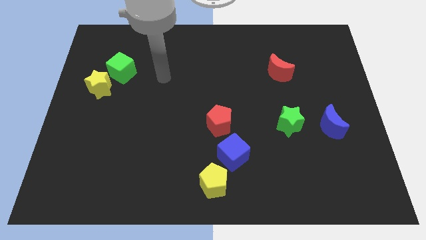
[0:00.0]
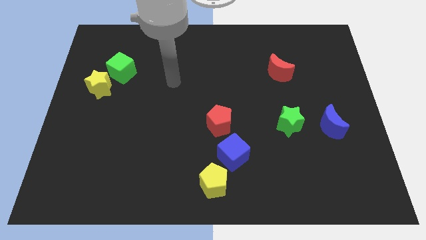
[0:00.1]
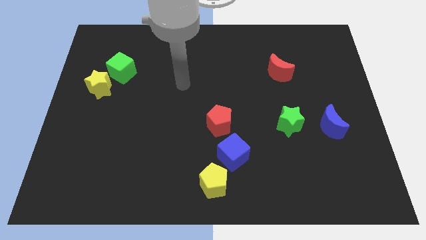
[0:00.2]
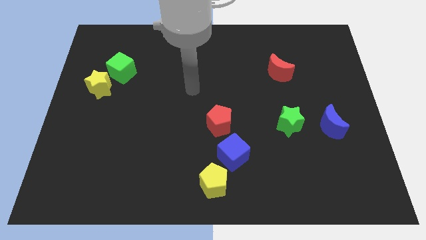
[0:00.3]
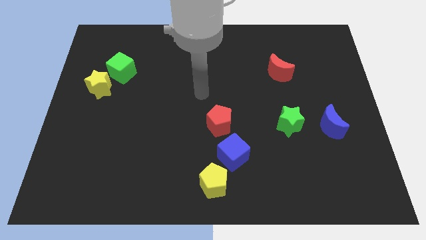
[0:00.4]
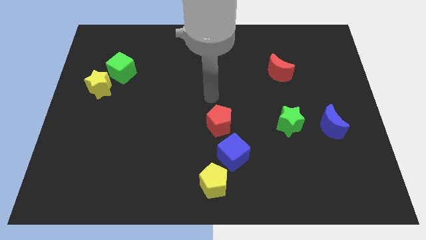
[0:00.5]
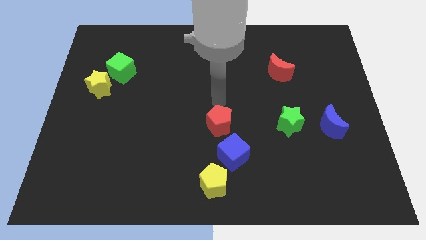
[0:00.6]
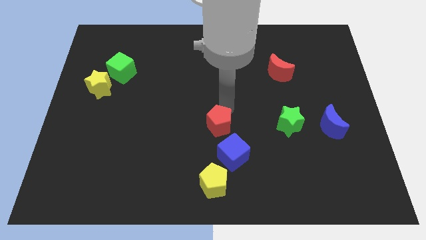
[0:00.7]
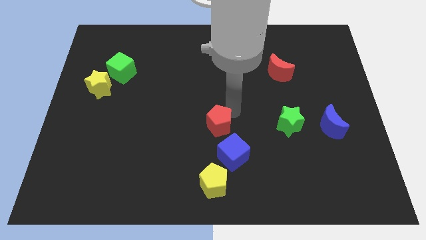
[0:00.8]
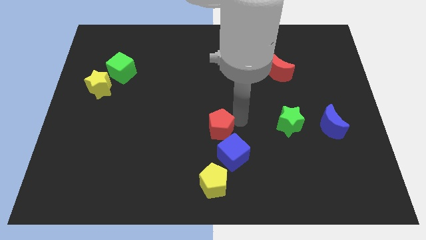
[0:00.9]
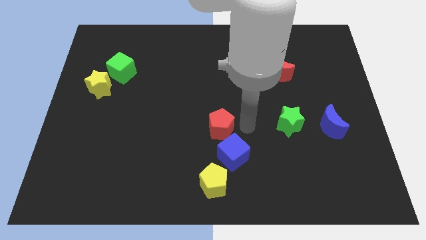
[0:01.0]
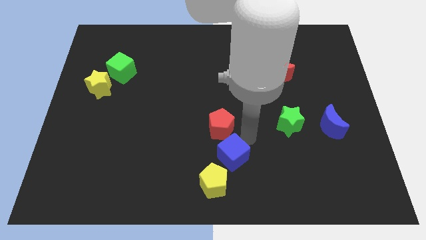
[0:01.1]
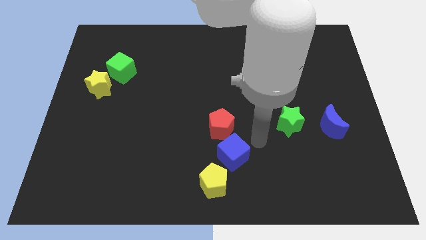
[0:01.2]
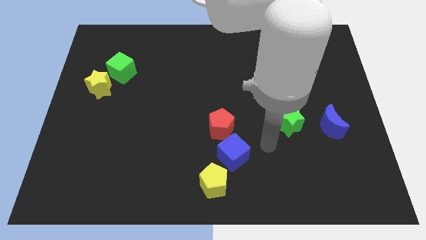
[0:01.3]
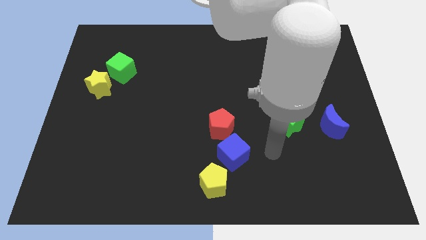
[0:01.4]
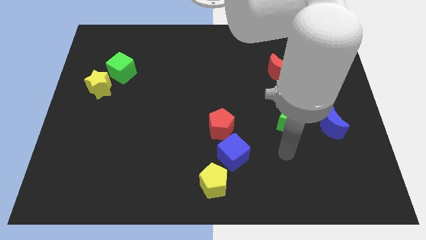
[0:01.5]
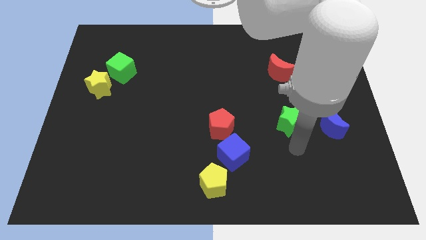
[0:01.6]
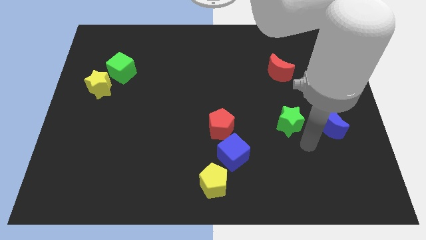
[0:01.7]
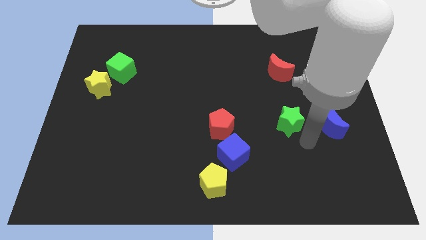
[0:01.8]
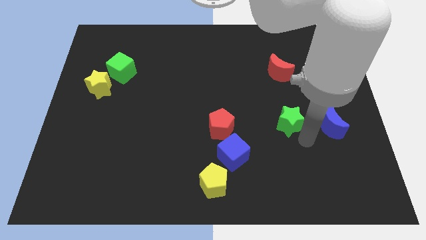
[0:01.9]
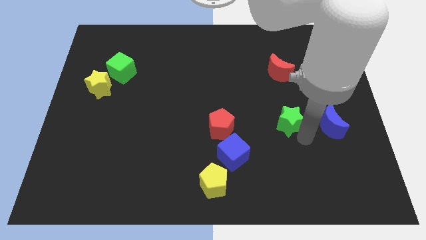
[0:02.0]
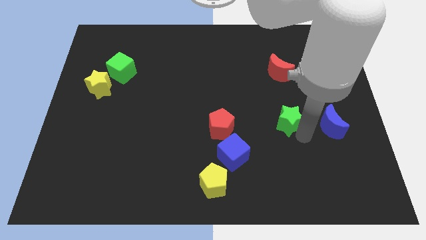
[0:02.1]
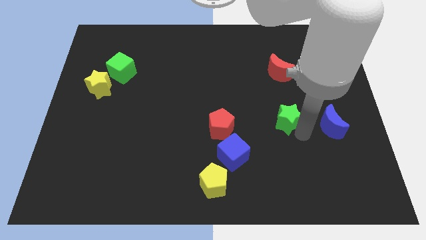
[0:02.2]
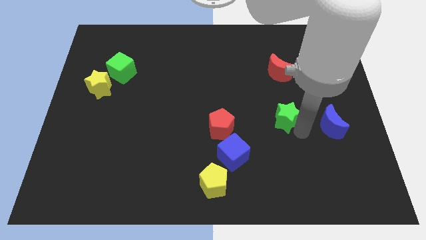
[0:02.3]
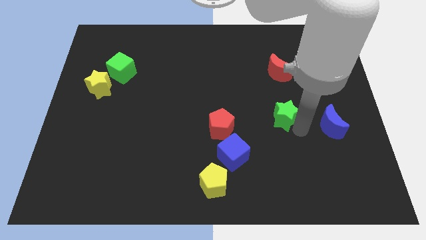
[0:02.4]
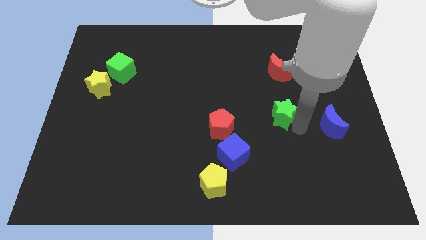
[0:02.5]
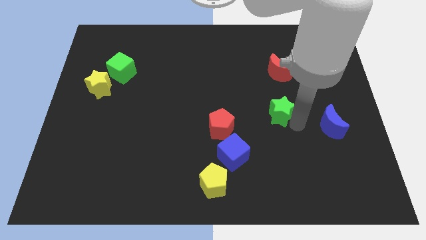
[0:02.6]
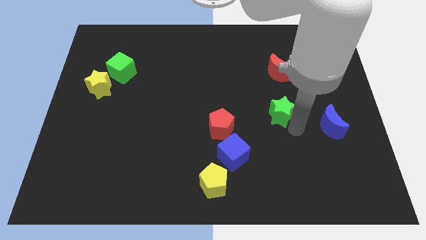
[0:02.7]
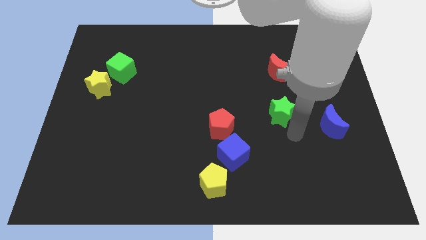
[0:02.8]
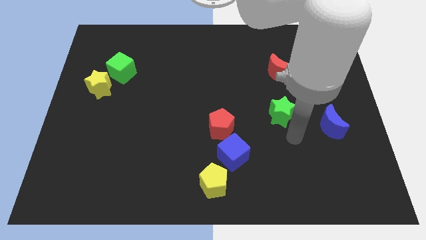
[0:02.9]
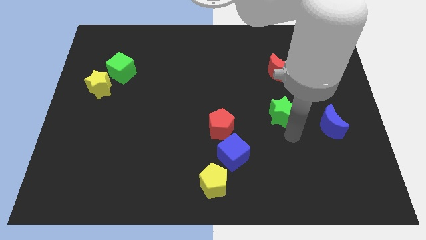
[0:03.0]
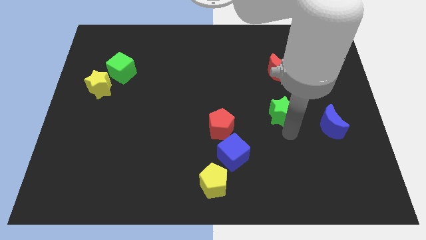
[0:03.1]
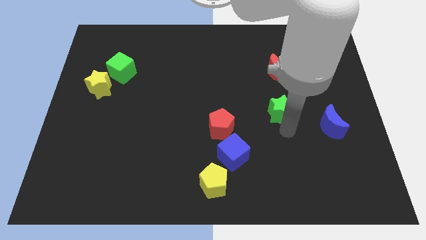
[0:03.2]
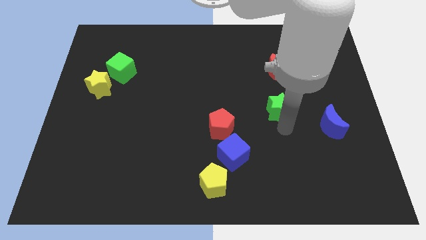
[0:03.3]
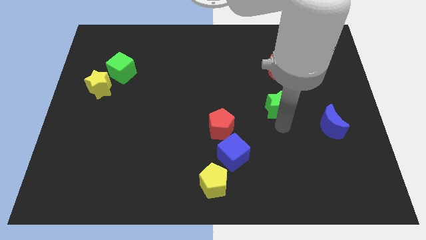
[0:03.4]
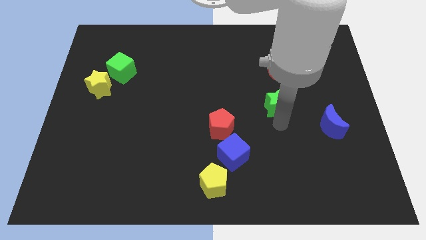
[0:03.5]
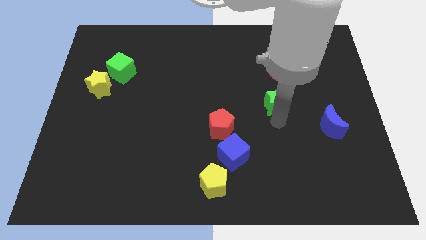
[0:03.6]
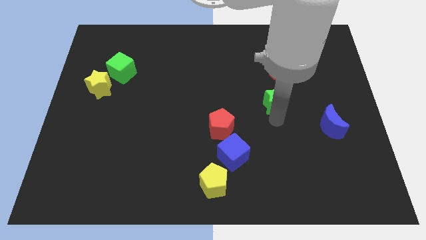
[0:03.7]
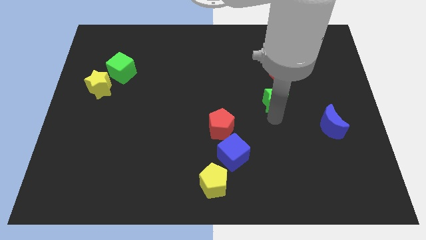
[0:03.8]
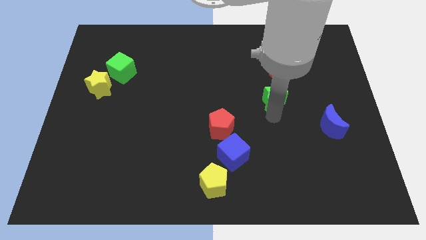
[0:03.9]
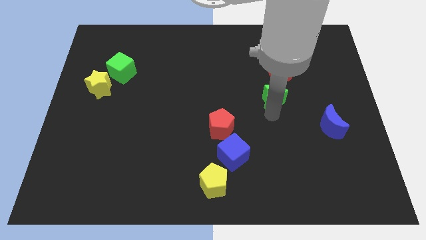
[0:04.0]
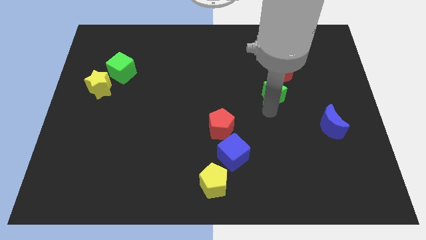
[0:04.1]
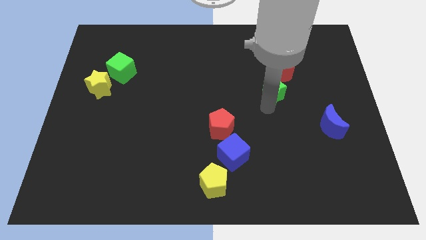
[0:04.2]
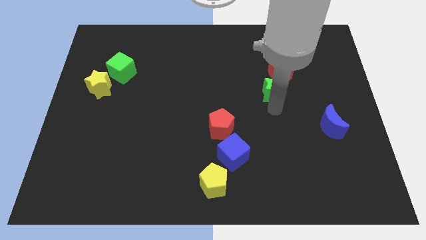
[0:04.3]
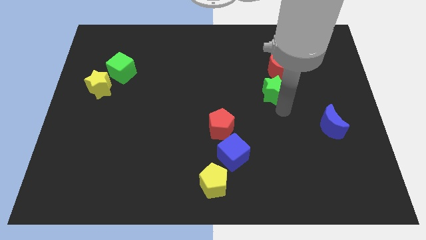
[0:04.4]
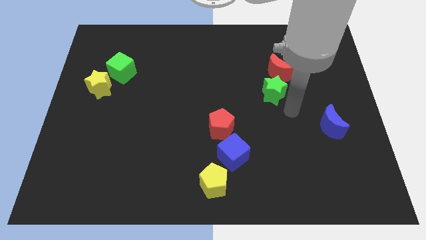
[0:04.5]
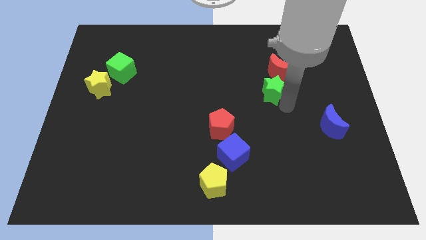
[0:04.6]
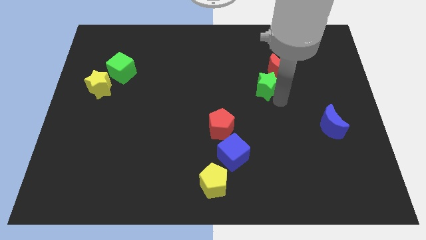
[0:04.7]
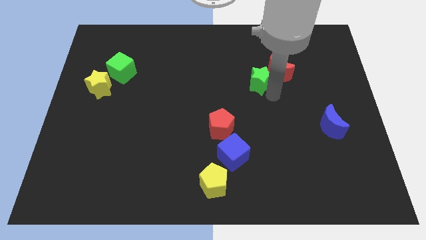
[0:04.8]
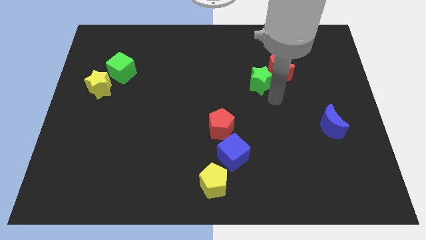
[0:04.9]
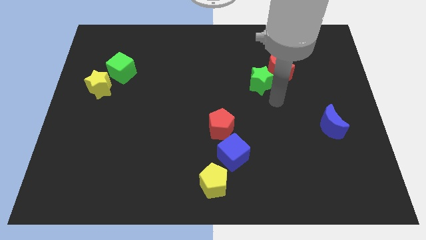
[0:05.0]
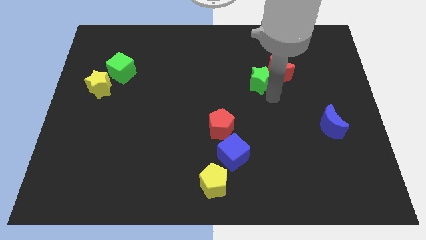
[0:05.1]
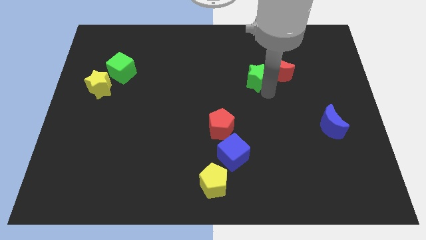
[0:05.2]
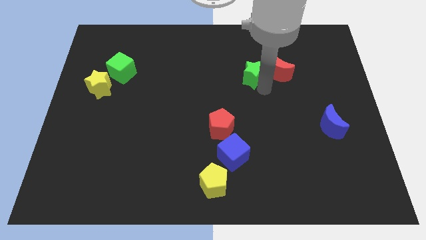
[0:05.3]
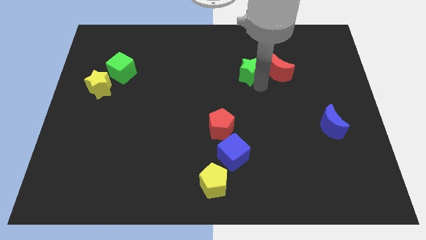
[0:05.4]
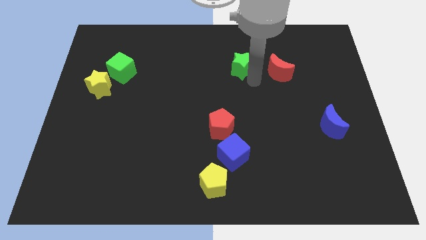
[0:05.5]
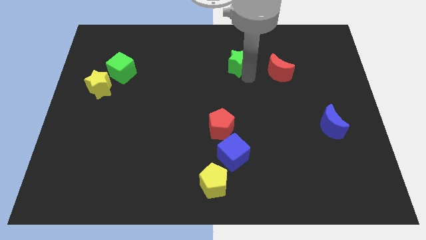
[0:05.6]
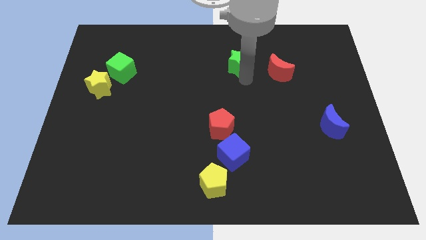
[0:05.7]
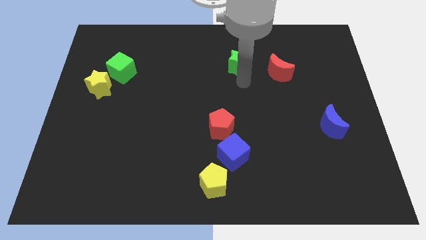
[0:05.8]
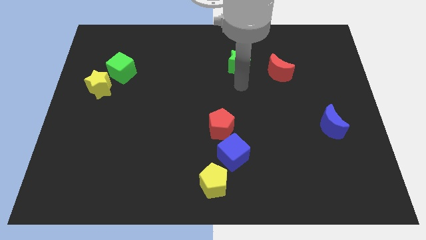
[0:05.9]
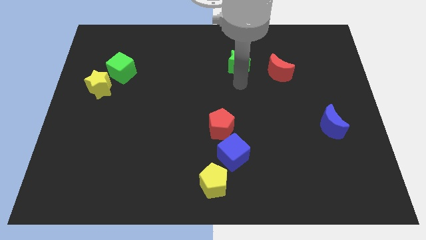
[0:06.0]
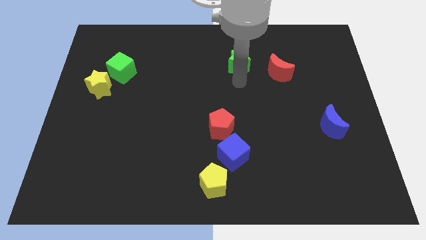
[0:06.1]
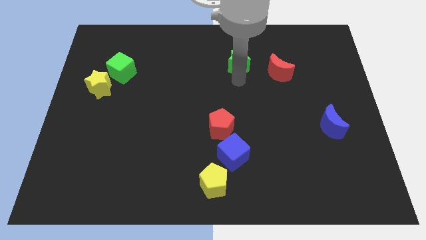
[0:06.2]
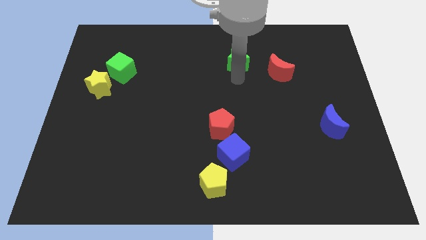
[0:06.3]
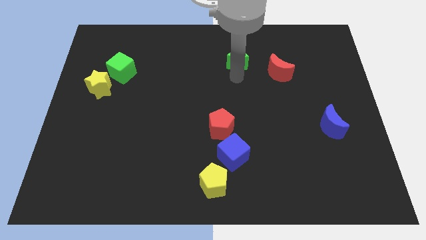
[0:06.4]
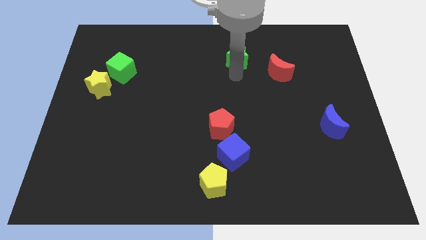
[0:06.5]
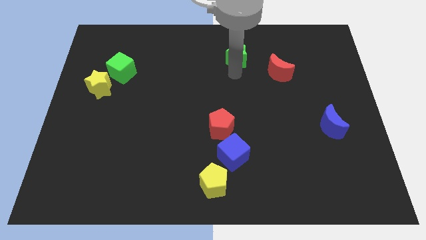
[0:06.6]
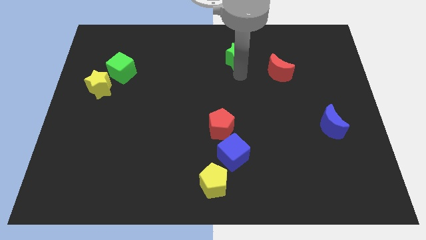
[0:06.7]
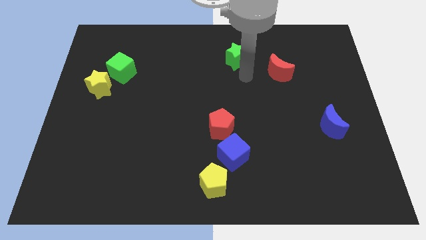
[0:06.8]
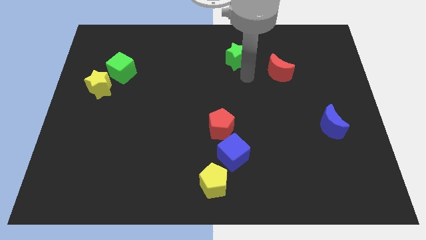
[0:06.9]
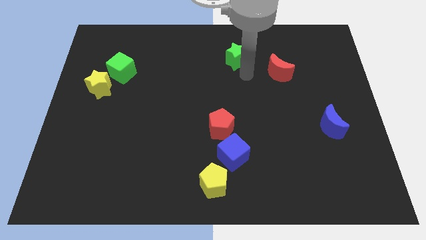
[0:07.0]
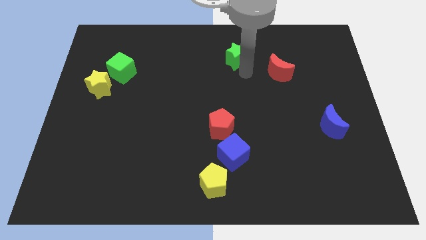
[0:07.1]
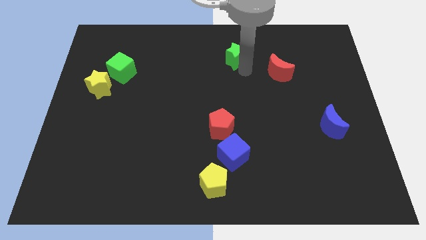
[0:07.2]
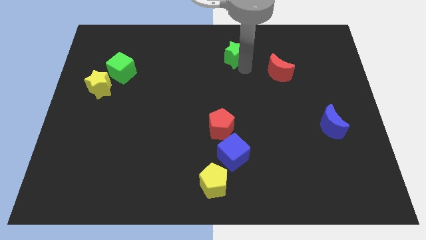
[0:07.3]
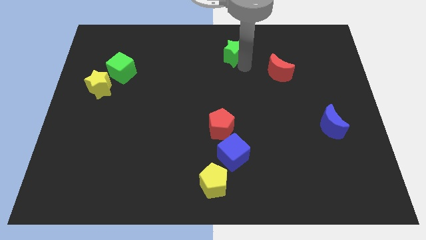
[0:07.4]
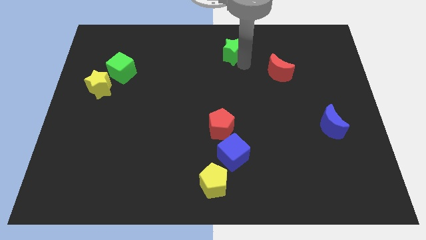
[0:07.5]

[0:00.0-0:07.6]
put the green star to the towards your base
